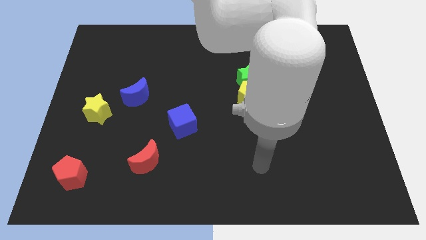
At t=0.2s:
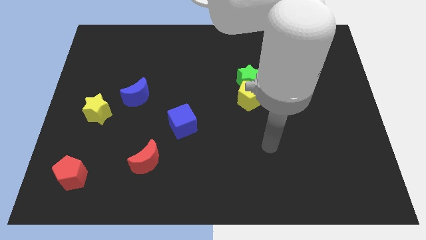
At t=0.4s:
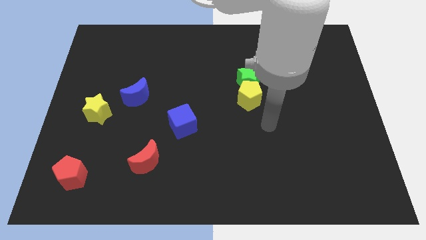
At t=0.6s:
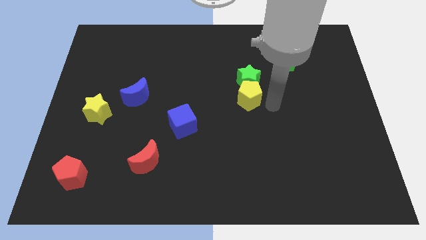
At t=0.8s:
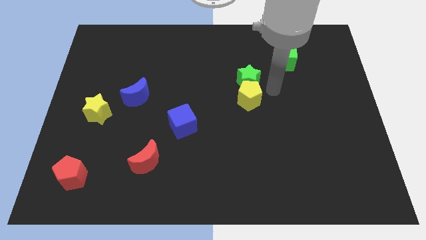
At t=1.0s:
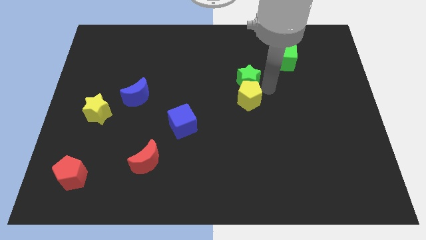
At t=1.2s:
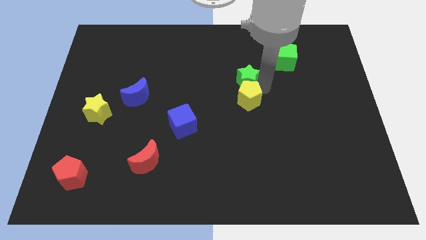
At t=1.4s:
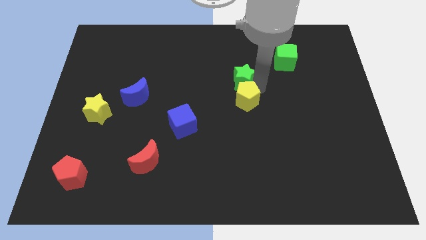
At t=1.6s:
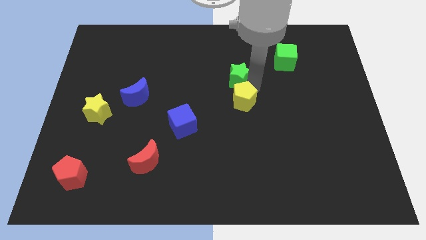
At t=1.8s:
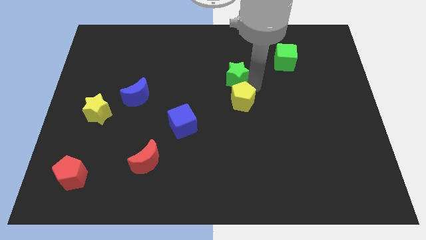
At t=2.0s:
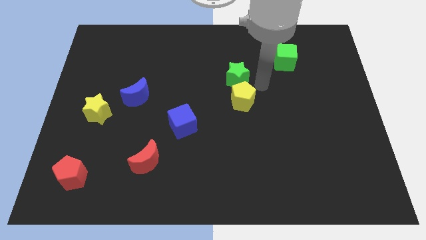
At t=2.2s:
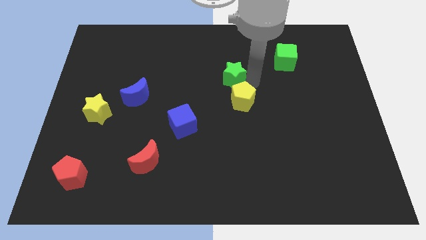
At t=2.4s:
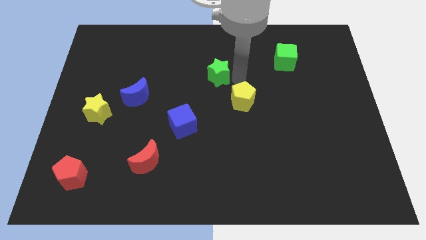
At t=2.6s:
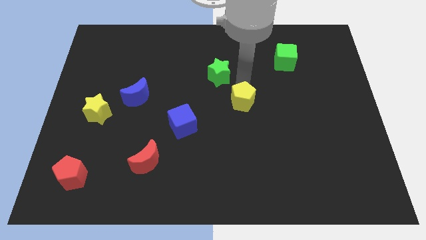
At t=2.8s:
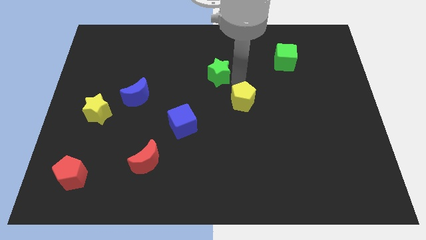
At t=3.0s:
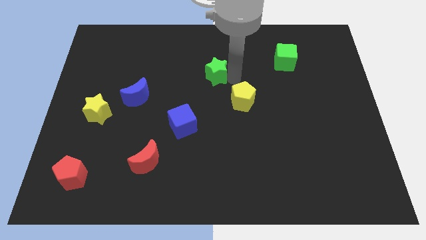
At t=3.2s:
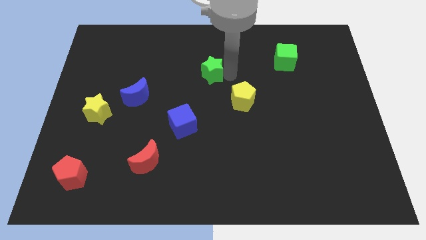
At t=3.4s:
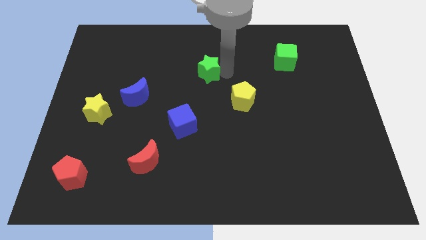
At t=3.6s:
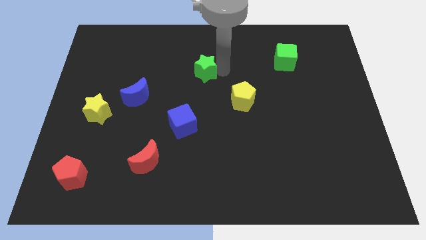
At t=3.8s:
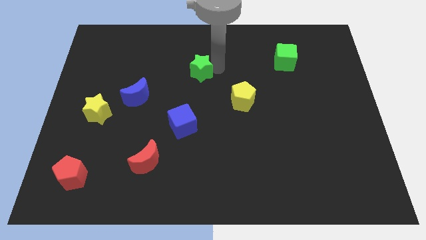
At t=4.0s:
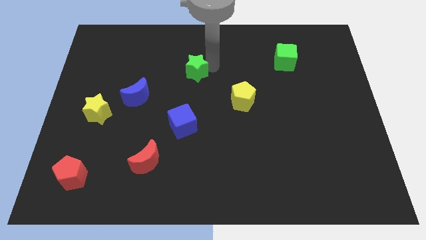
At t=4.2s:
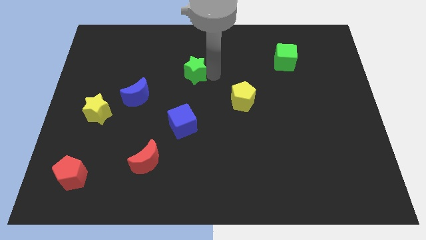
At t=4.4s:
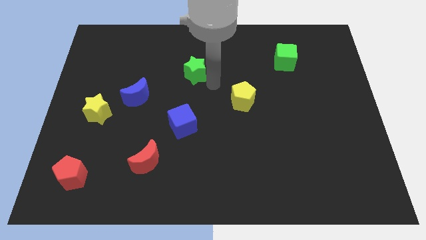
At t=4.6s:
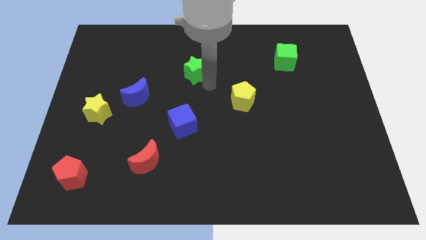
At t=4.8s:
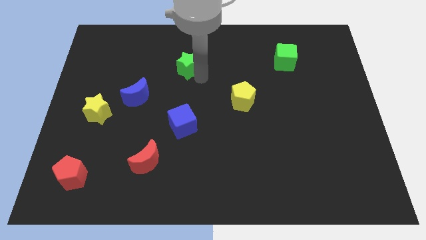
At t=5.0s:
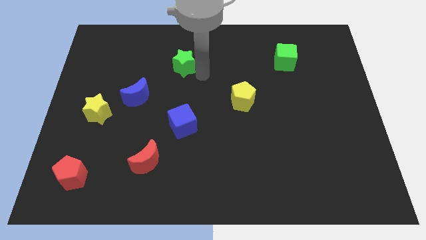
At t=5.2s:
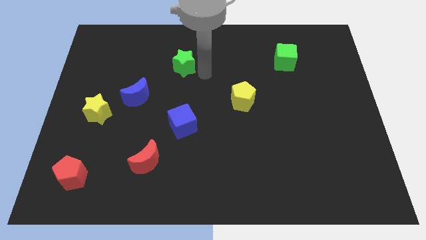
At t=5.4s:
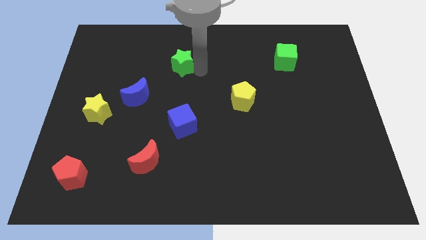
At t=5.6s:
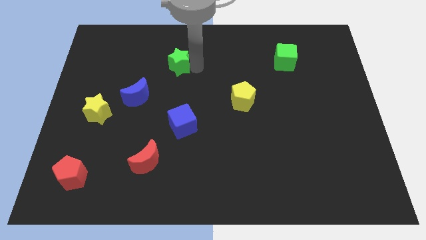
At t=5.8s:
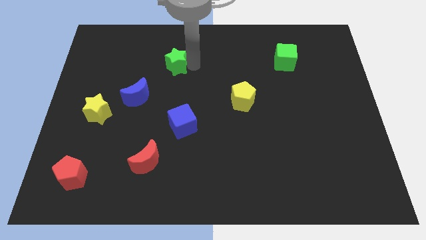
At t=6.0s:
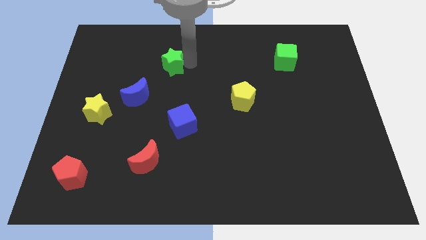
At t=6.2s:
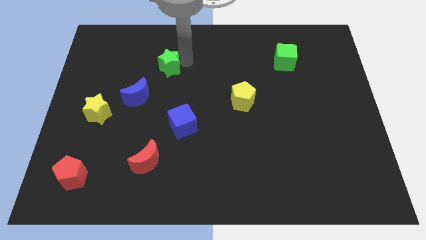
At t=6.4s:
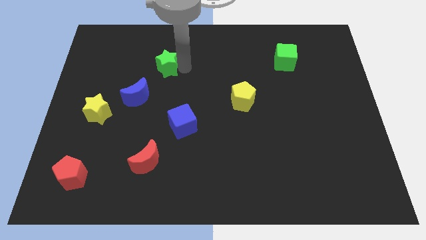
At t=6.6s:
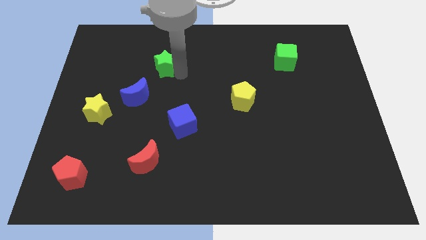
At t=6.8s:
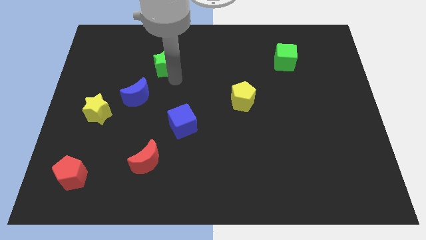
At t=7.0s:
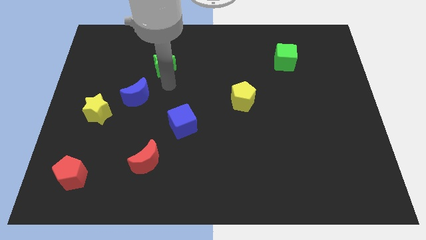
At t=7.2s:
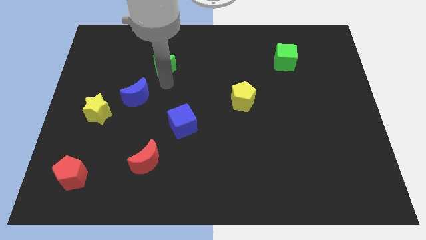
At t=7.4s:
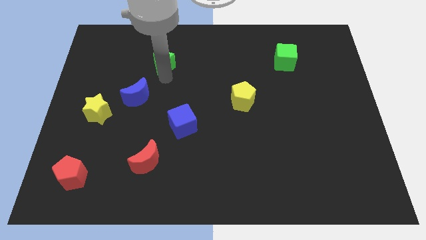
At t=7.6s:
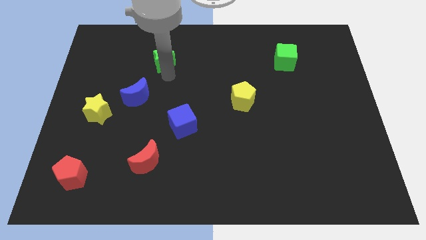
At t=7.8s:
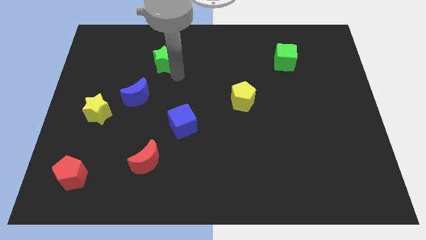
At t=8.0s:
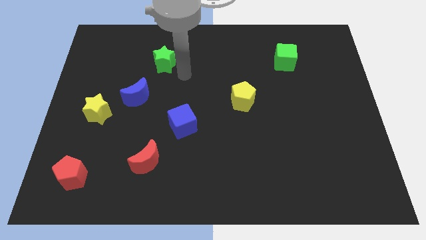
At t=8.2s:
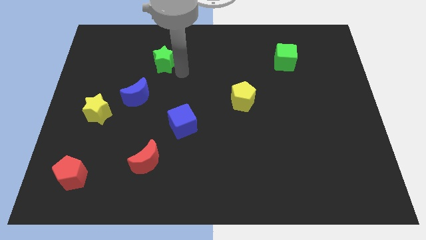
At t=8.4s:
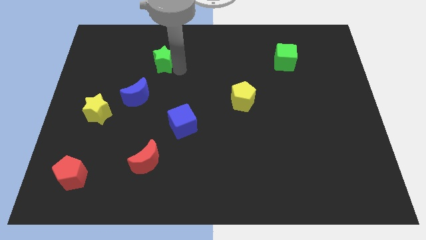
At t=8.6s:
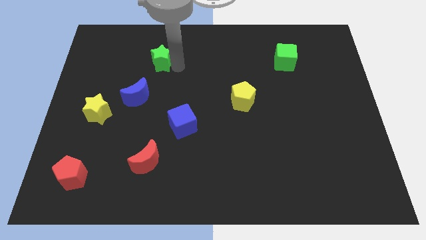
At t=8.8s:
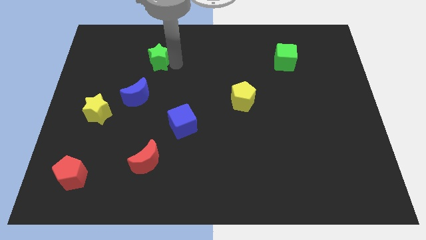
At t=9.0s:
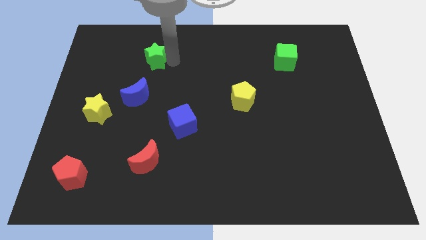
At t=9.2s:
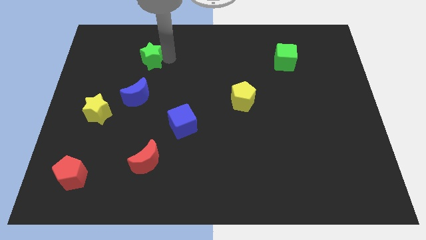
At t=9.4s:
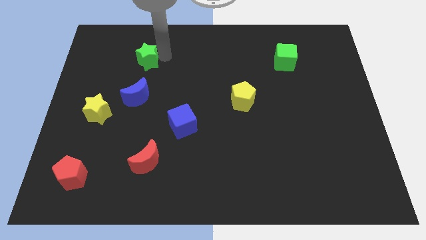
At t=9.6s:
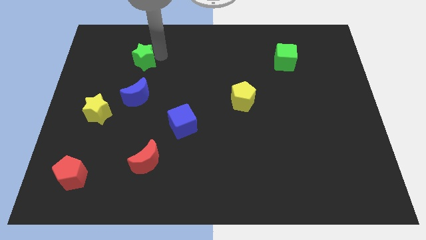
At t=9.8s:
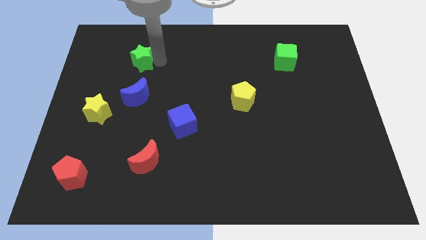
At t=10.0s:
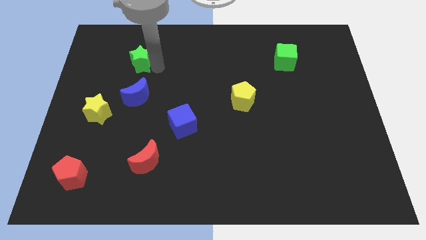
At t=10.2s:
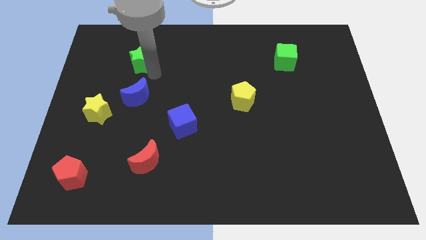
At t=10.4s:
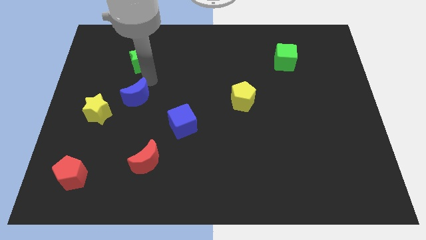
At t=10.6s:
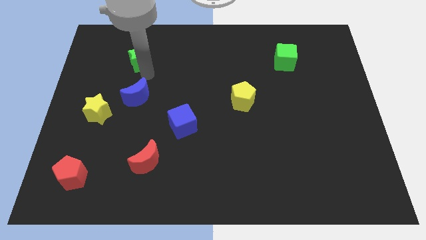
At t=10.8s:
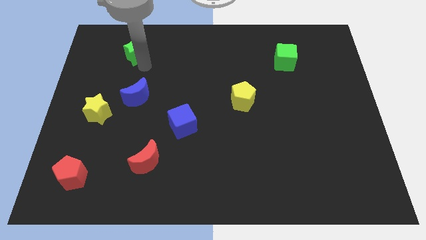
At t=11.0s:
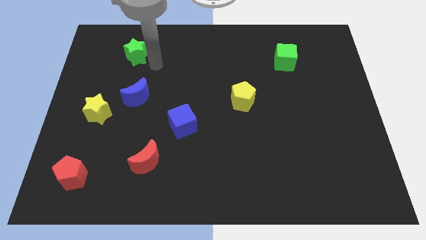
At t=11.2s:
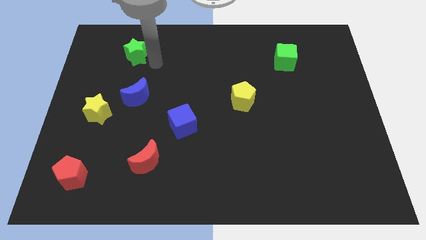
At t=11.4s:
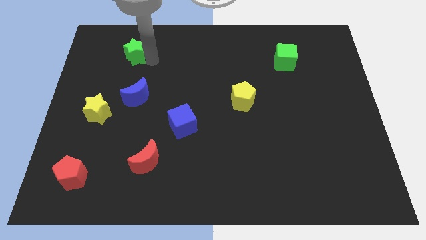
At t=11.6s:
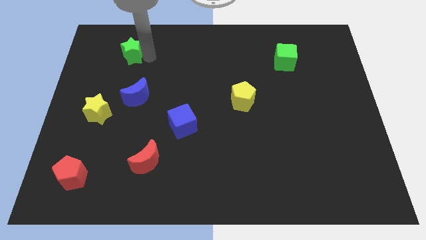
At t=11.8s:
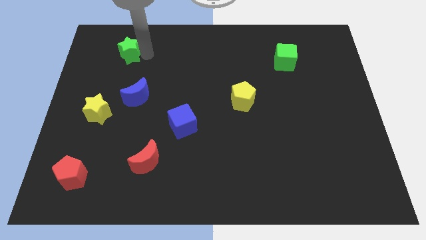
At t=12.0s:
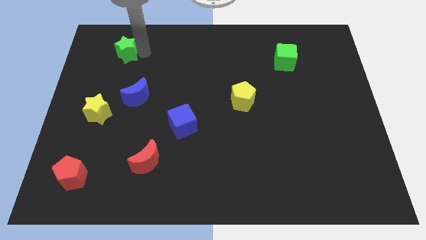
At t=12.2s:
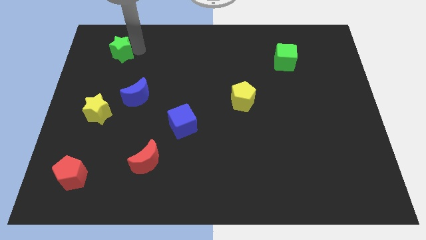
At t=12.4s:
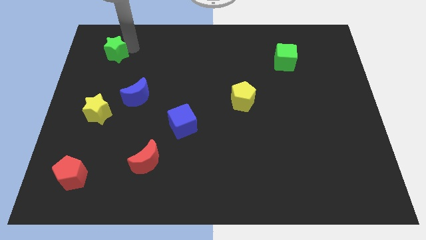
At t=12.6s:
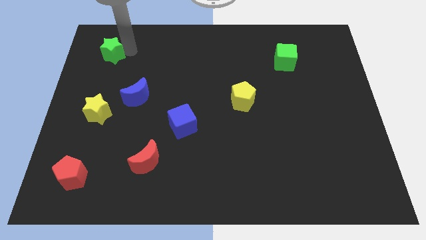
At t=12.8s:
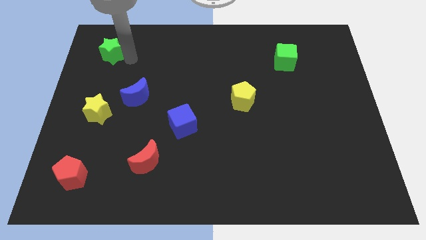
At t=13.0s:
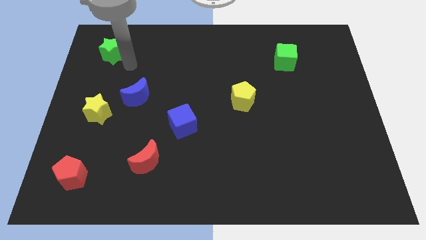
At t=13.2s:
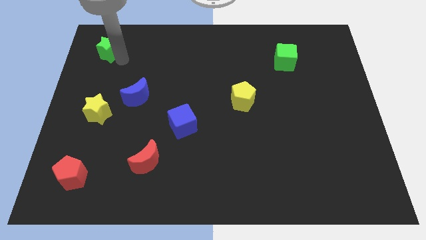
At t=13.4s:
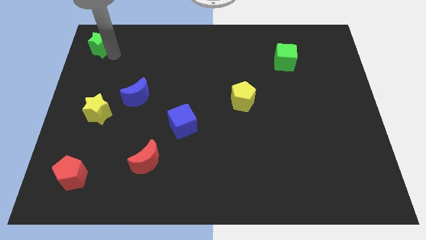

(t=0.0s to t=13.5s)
put the green star to the top left
